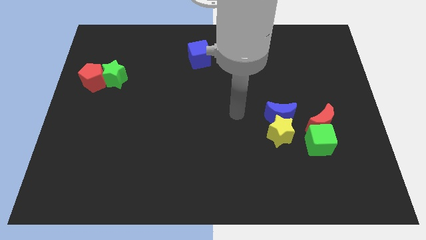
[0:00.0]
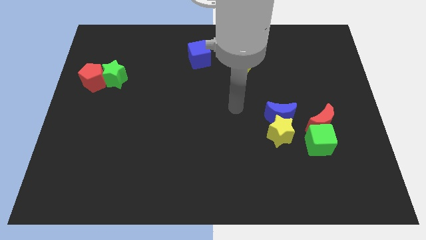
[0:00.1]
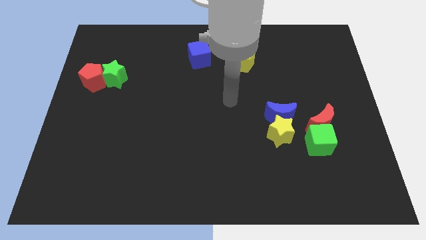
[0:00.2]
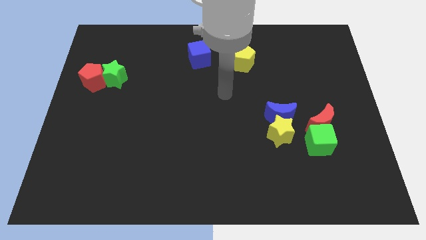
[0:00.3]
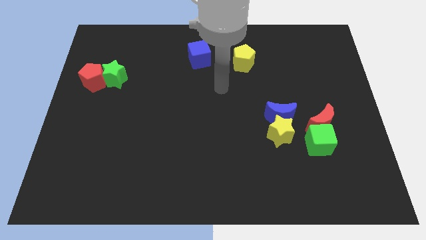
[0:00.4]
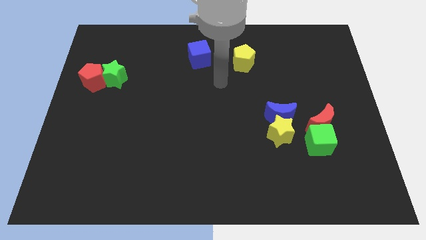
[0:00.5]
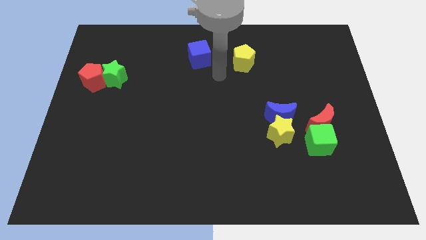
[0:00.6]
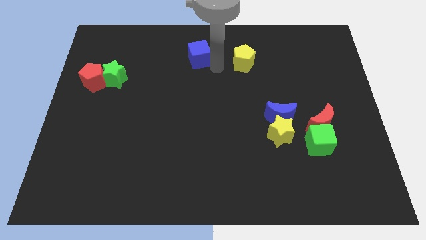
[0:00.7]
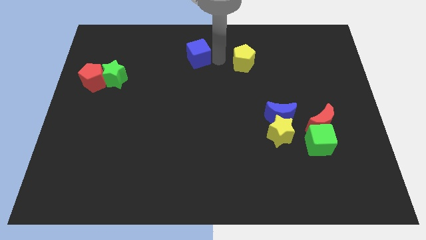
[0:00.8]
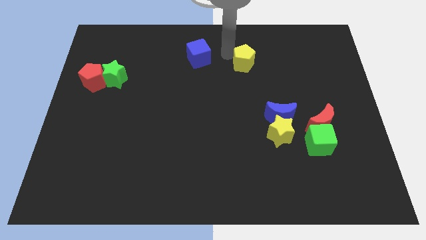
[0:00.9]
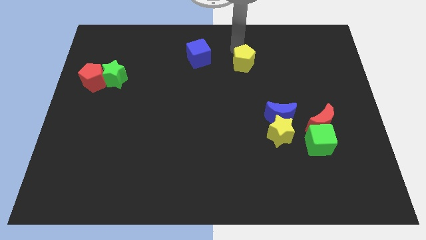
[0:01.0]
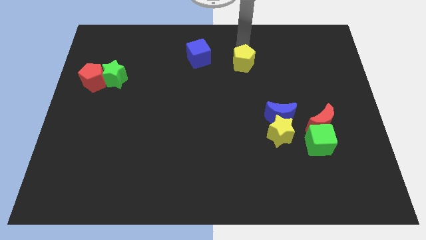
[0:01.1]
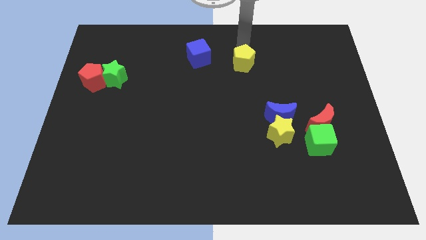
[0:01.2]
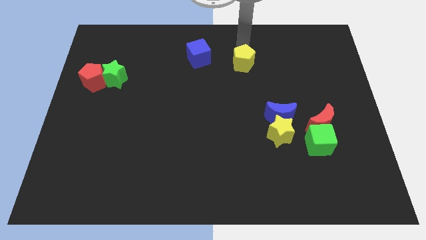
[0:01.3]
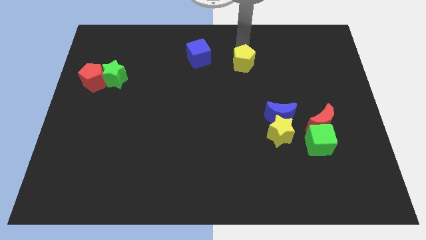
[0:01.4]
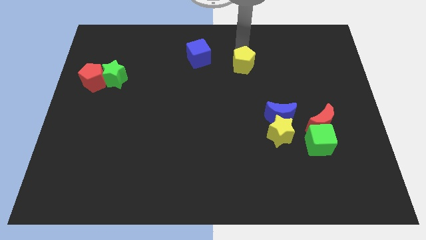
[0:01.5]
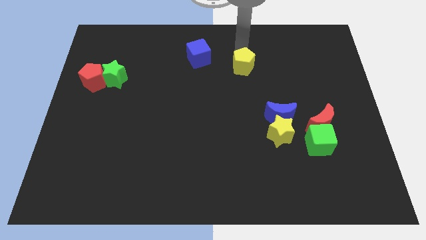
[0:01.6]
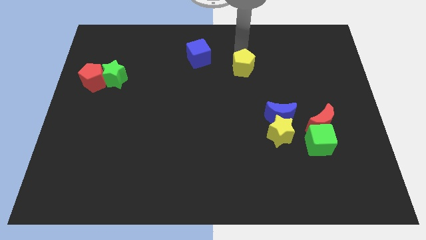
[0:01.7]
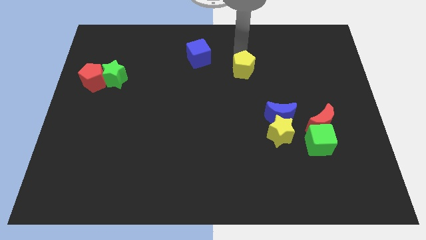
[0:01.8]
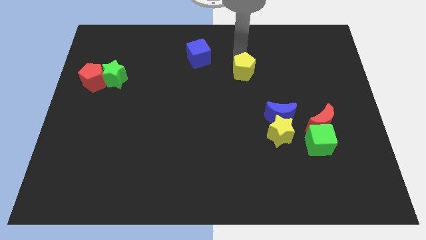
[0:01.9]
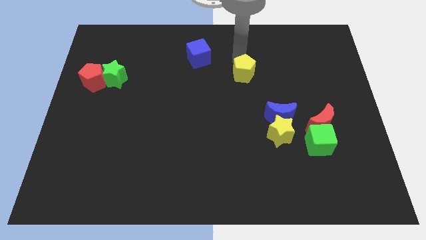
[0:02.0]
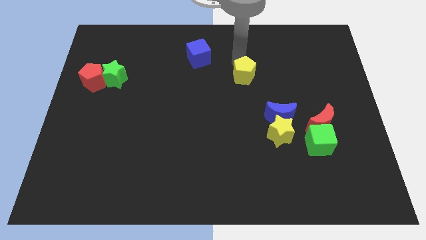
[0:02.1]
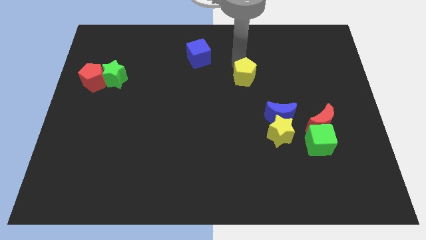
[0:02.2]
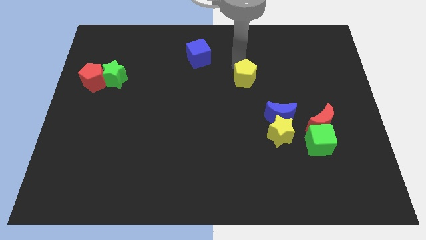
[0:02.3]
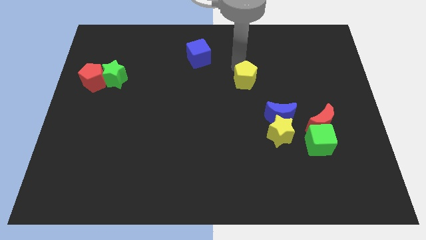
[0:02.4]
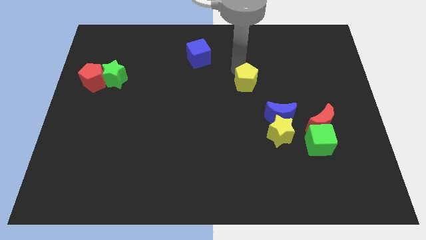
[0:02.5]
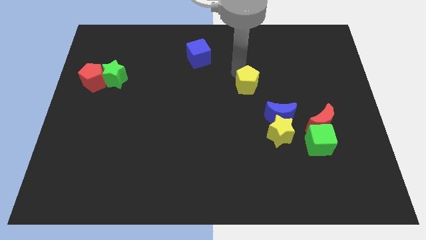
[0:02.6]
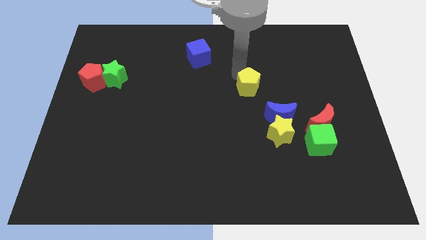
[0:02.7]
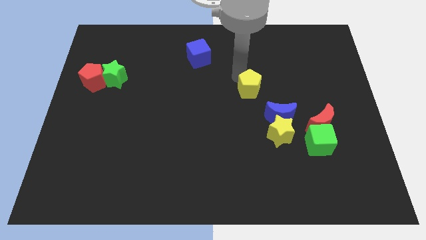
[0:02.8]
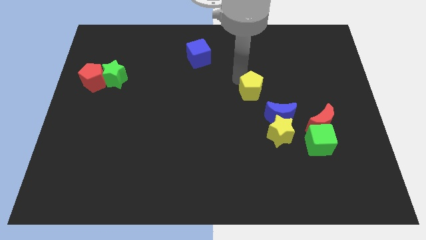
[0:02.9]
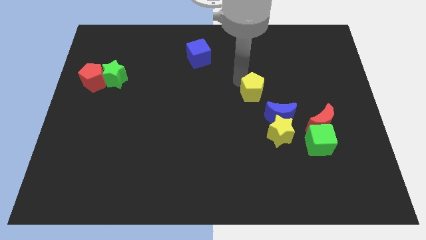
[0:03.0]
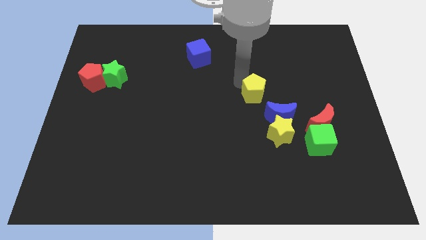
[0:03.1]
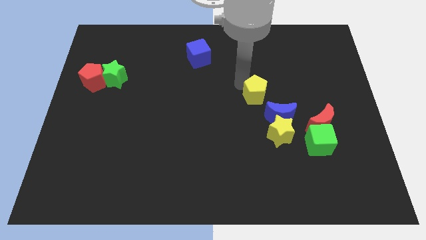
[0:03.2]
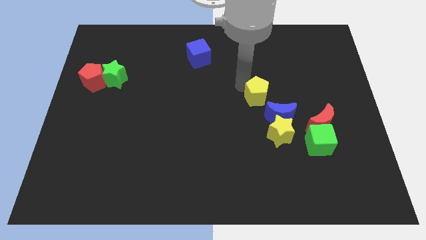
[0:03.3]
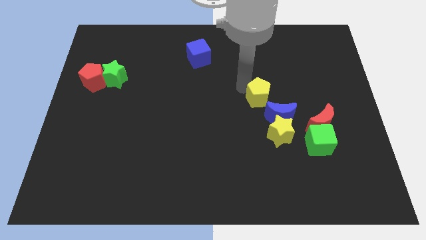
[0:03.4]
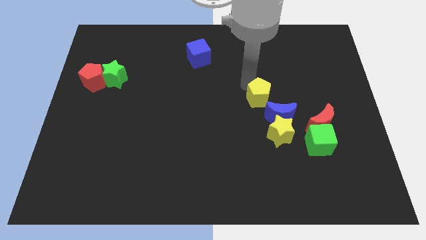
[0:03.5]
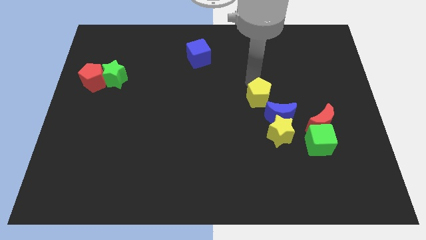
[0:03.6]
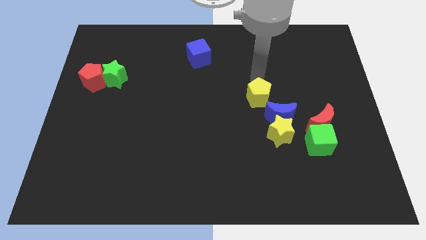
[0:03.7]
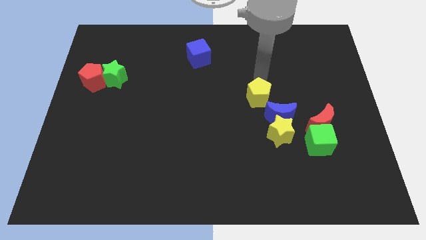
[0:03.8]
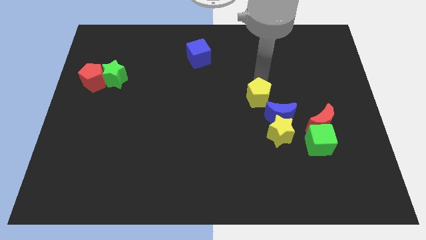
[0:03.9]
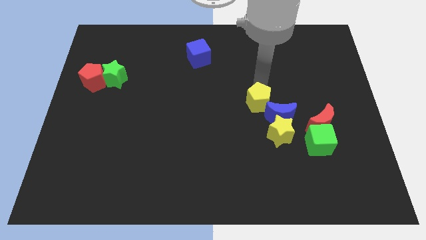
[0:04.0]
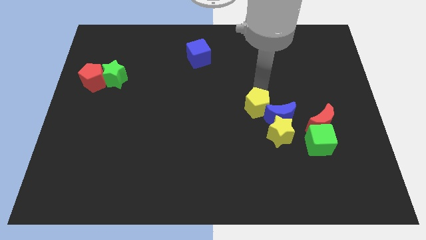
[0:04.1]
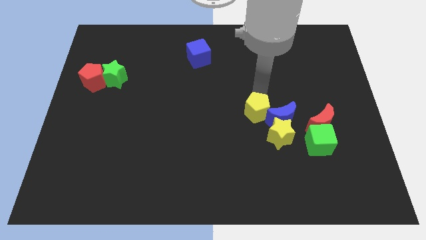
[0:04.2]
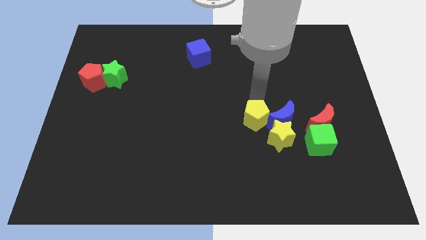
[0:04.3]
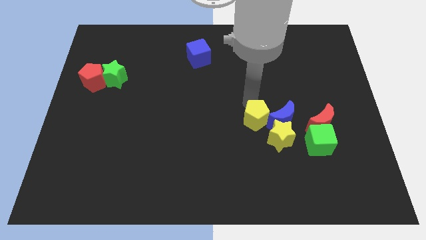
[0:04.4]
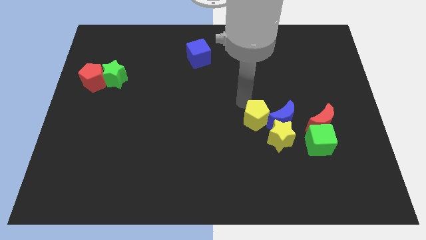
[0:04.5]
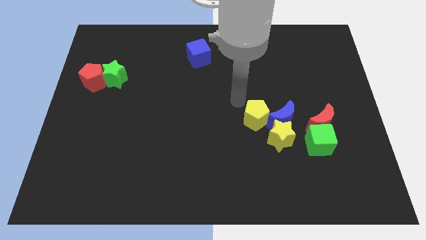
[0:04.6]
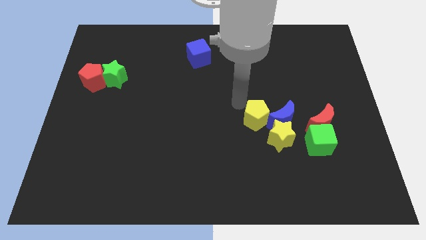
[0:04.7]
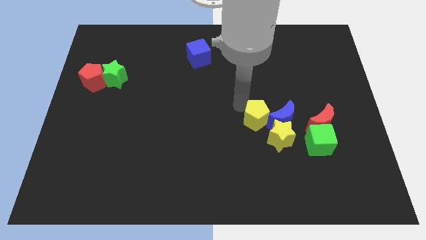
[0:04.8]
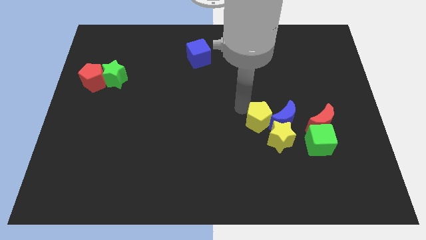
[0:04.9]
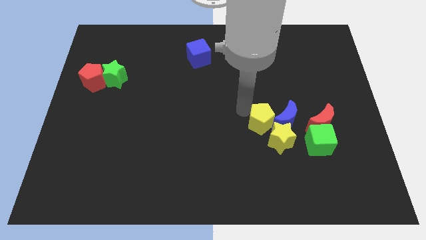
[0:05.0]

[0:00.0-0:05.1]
put the yellow pentagon next to the yellow star

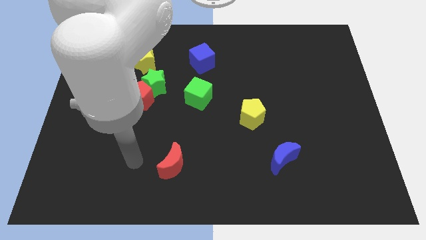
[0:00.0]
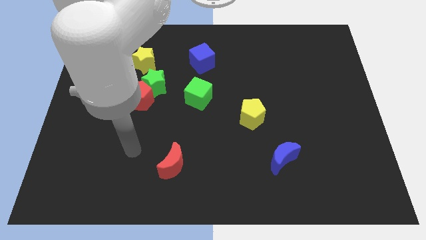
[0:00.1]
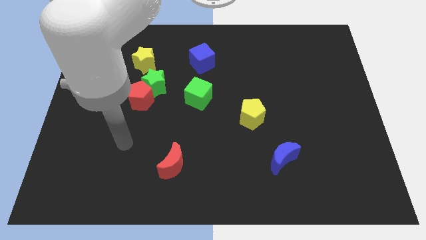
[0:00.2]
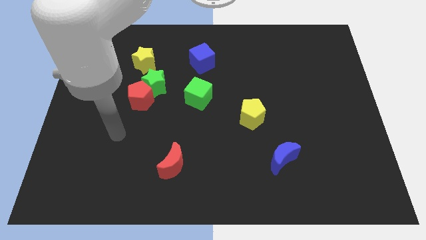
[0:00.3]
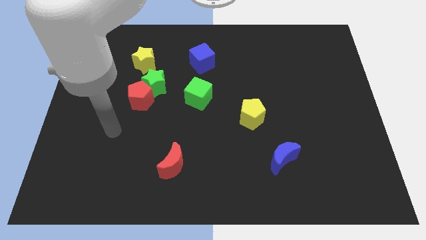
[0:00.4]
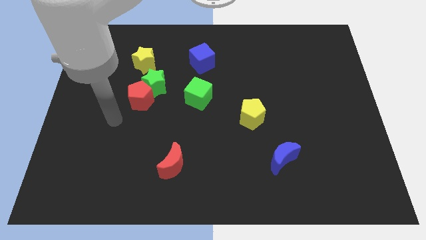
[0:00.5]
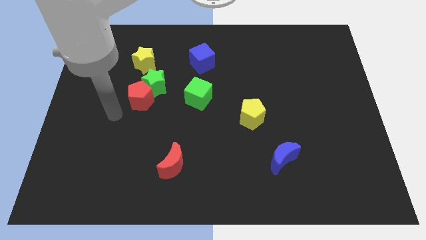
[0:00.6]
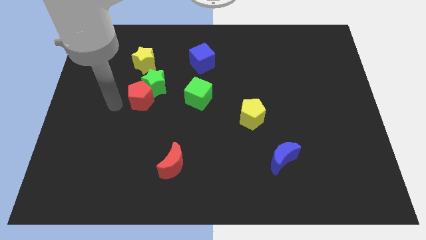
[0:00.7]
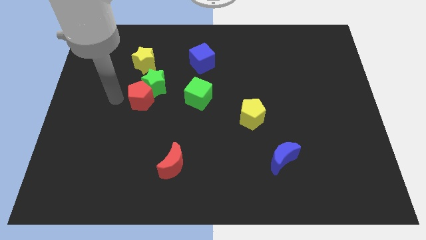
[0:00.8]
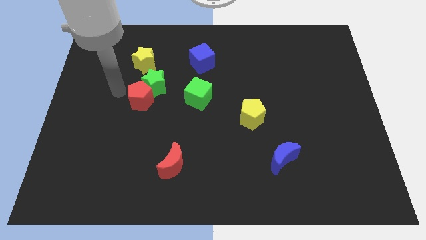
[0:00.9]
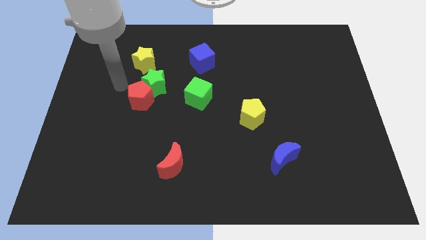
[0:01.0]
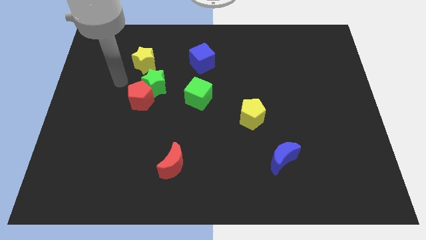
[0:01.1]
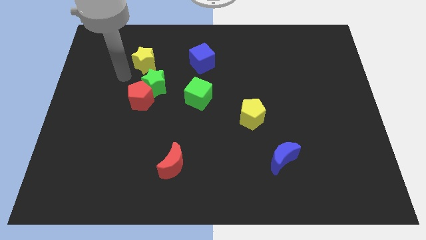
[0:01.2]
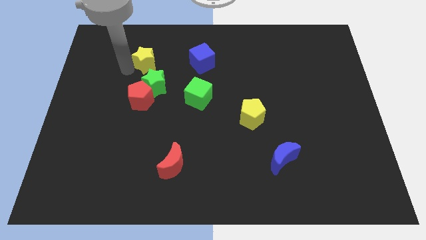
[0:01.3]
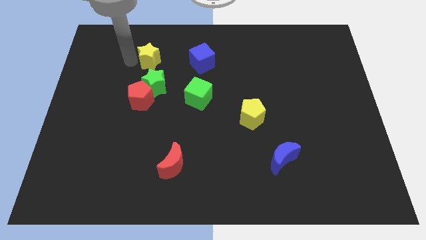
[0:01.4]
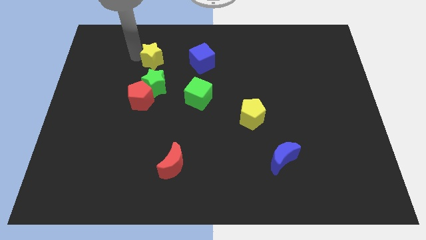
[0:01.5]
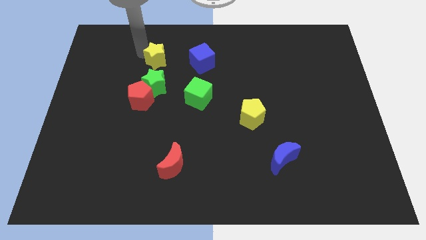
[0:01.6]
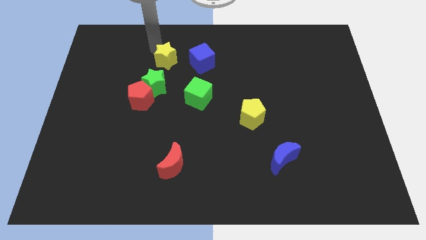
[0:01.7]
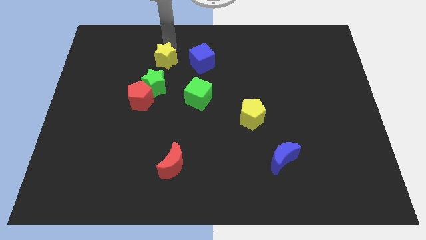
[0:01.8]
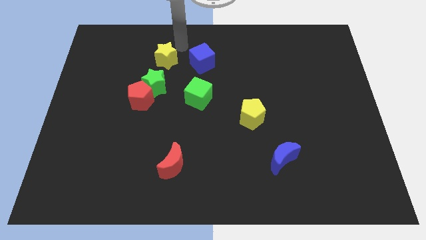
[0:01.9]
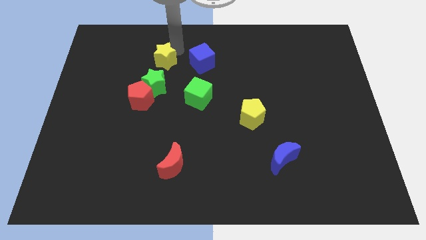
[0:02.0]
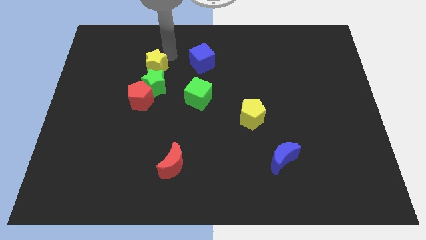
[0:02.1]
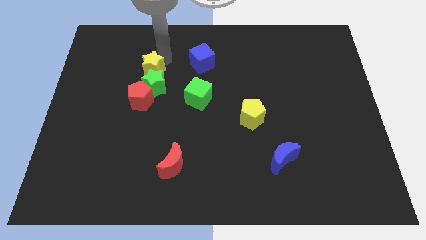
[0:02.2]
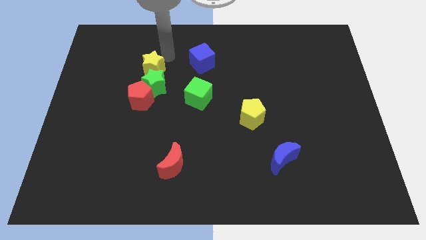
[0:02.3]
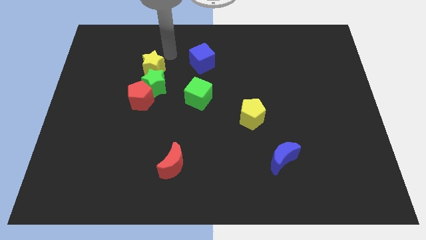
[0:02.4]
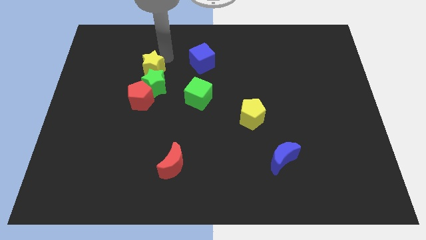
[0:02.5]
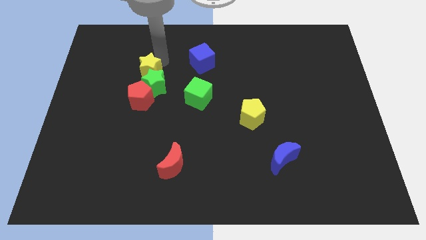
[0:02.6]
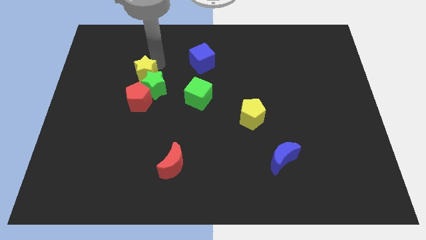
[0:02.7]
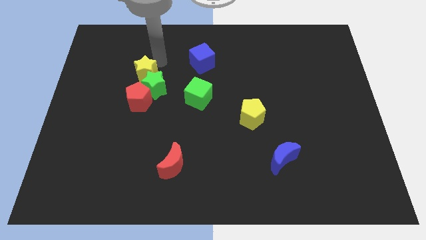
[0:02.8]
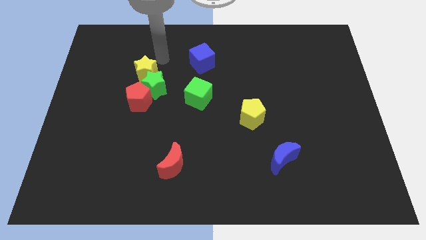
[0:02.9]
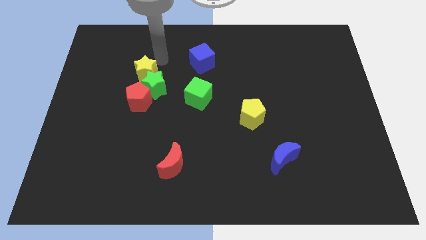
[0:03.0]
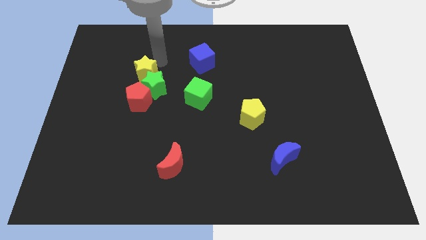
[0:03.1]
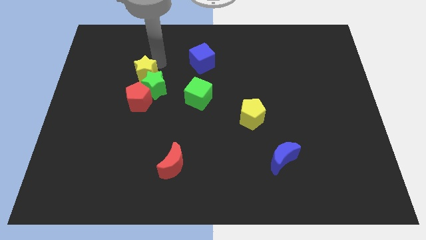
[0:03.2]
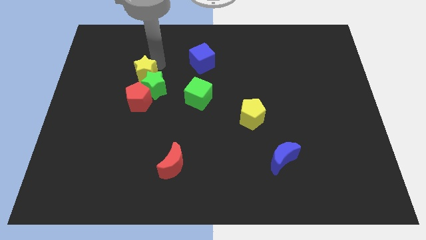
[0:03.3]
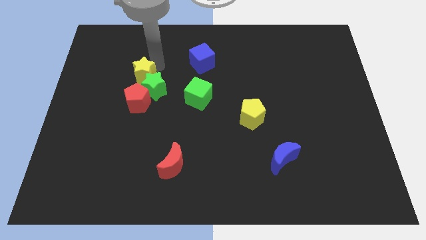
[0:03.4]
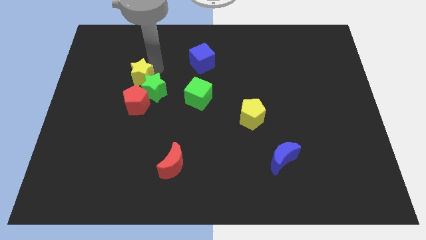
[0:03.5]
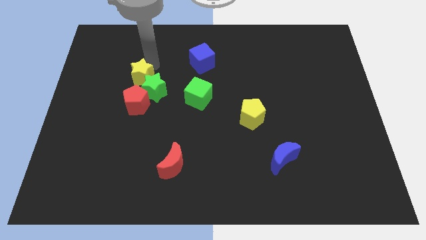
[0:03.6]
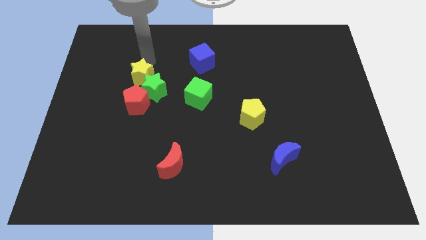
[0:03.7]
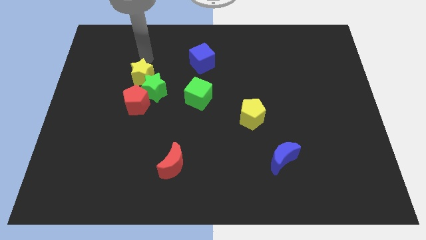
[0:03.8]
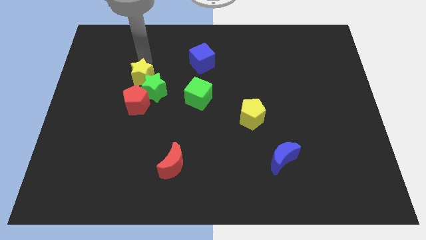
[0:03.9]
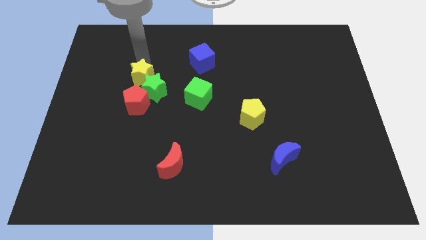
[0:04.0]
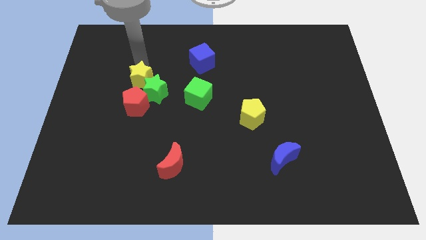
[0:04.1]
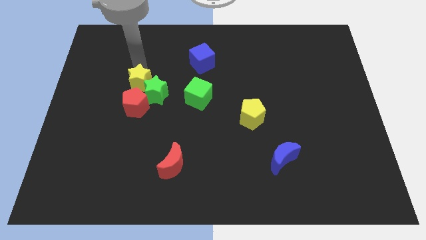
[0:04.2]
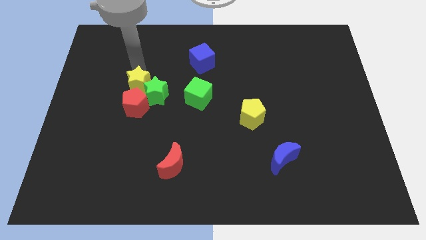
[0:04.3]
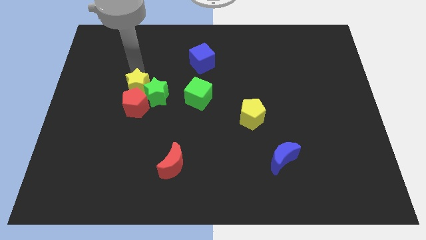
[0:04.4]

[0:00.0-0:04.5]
push the yellow star close to the red pentagon
